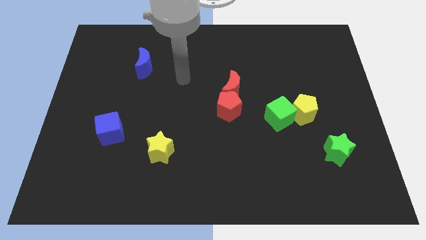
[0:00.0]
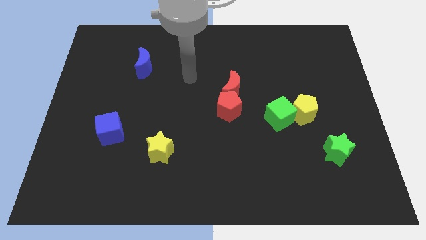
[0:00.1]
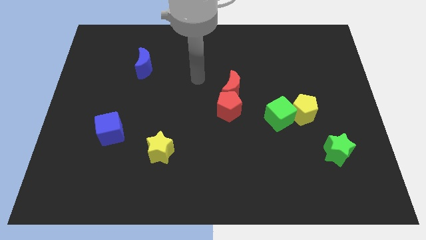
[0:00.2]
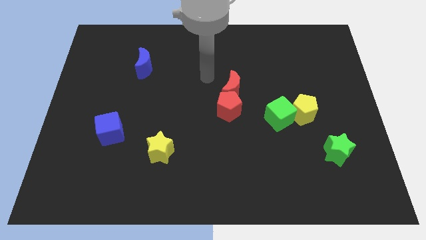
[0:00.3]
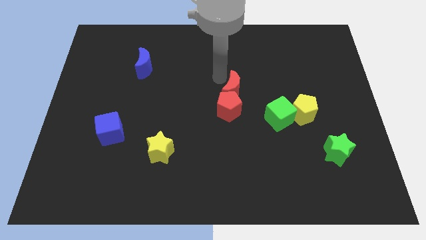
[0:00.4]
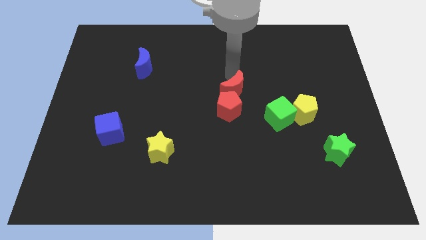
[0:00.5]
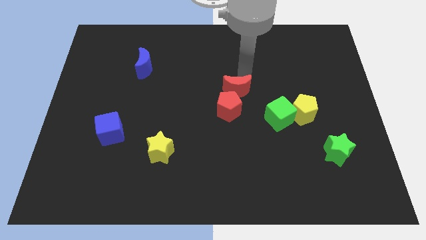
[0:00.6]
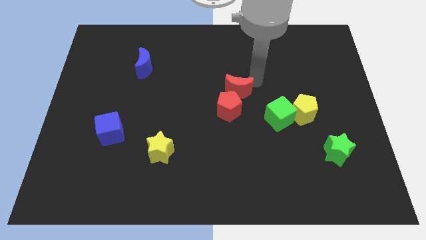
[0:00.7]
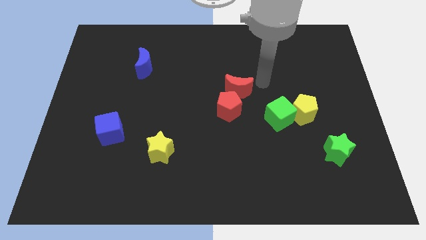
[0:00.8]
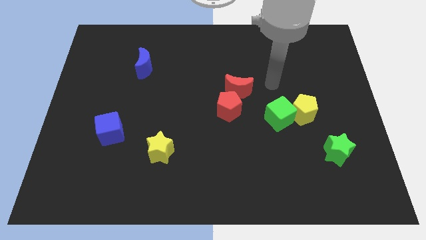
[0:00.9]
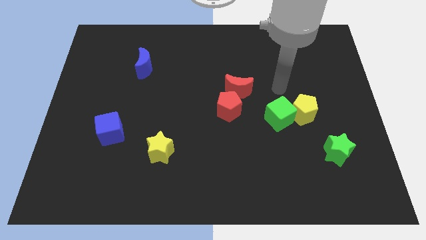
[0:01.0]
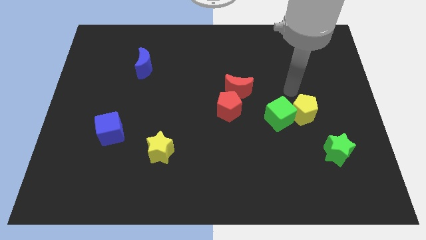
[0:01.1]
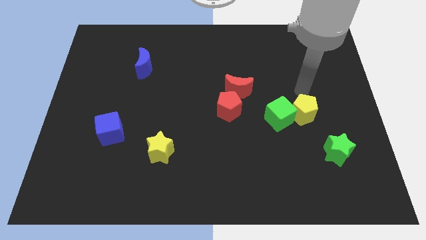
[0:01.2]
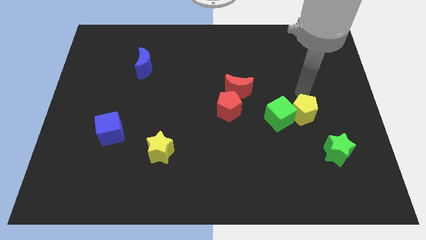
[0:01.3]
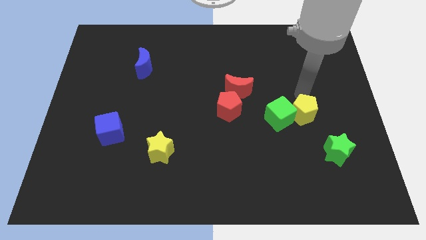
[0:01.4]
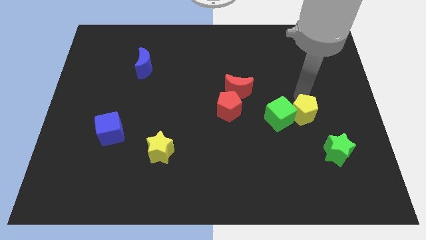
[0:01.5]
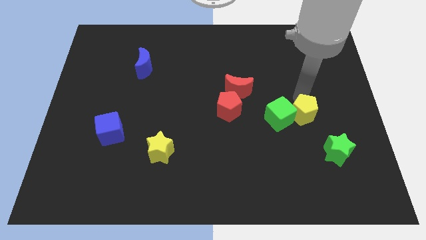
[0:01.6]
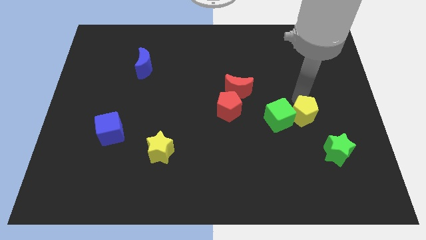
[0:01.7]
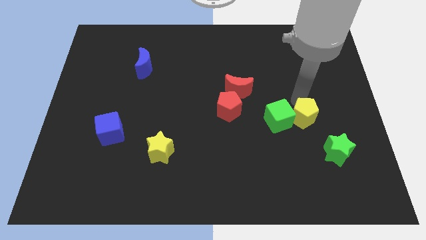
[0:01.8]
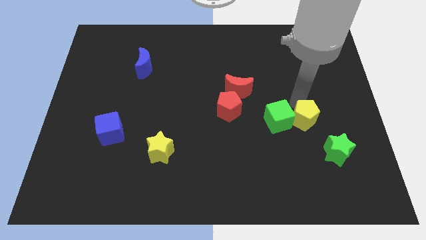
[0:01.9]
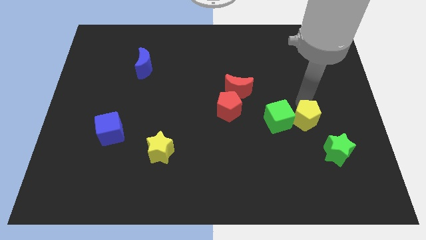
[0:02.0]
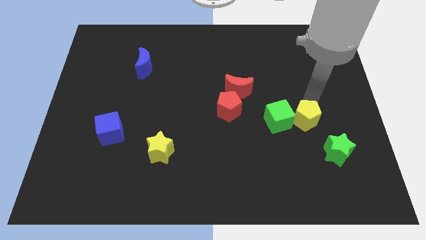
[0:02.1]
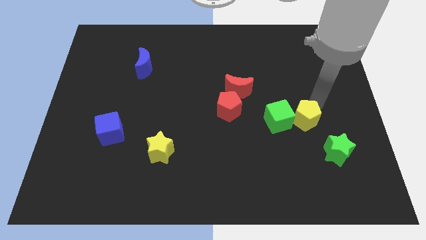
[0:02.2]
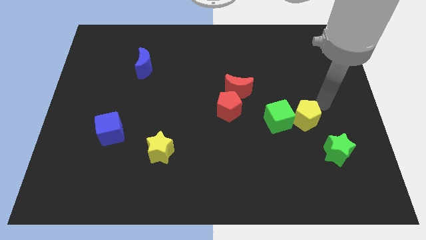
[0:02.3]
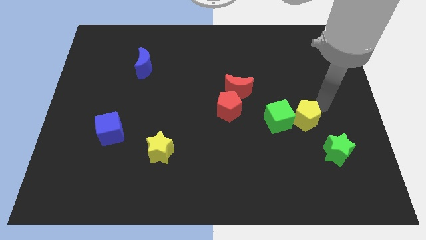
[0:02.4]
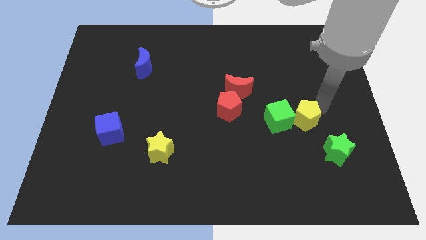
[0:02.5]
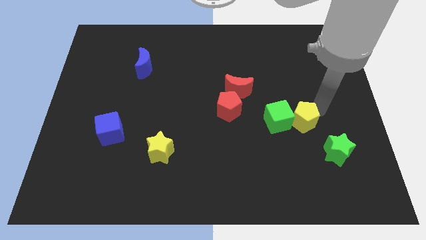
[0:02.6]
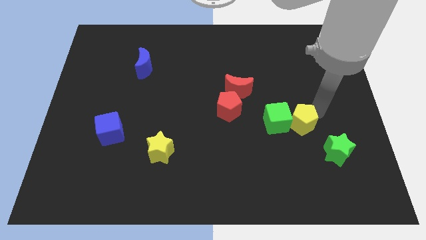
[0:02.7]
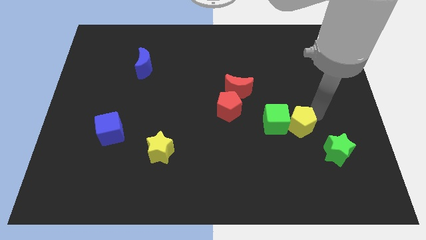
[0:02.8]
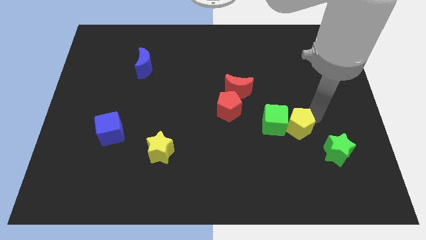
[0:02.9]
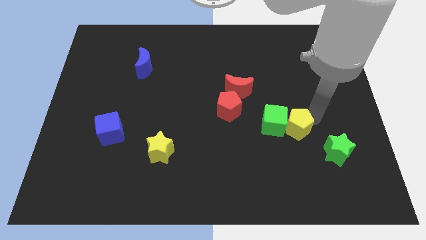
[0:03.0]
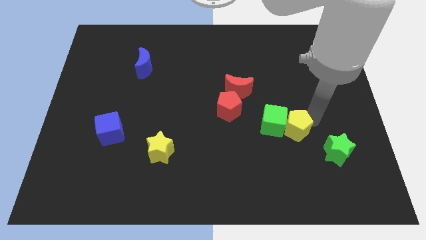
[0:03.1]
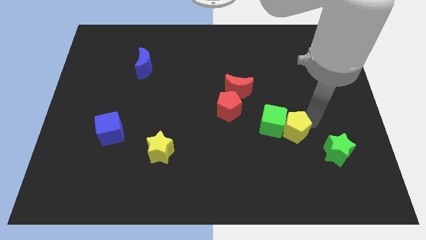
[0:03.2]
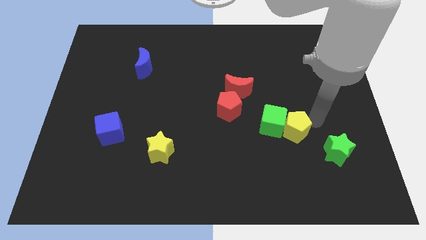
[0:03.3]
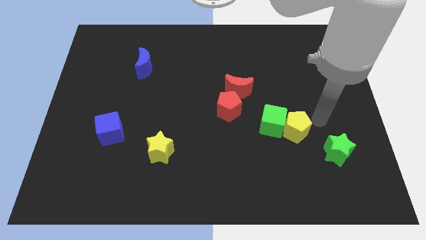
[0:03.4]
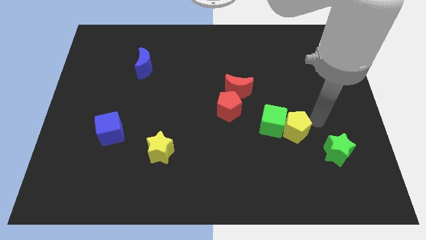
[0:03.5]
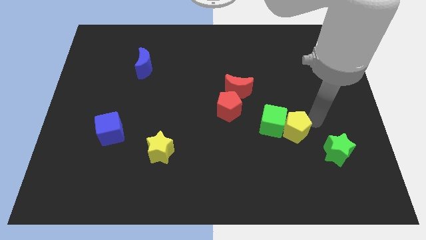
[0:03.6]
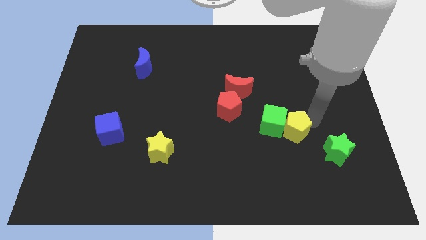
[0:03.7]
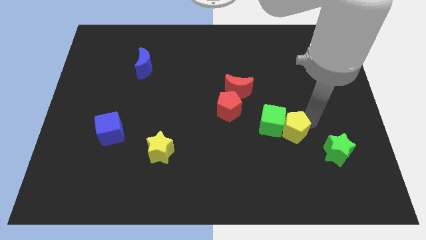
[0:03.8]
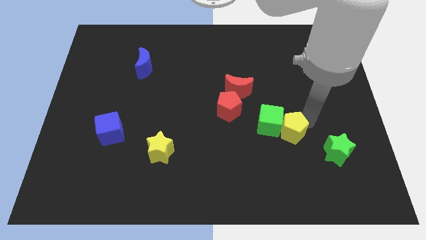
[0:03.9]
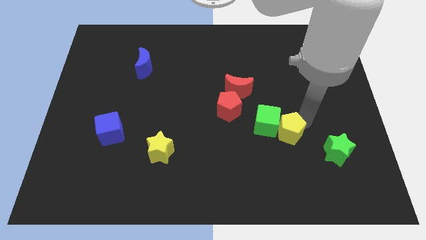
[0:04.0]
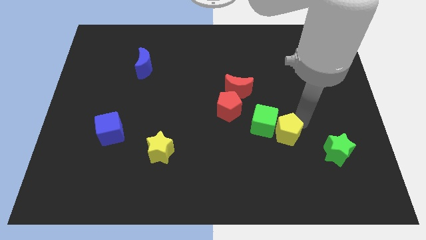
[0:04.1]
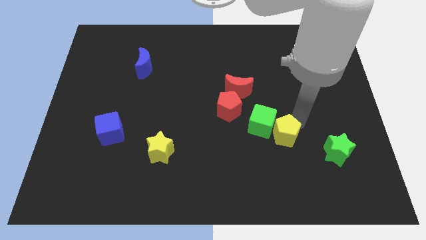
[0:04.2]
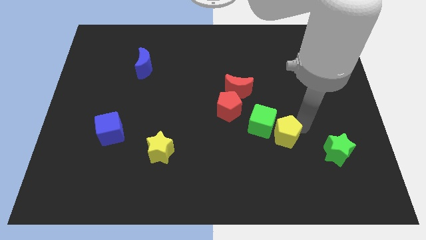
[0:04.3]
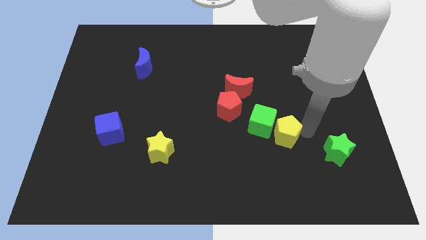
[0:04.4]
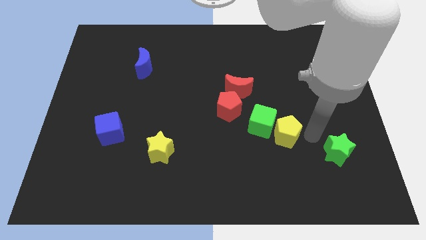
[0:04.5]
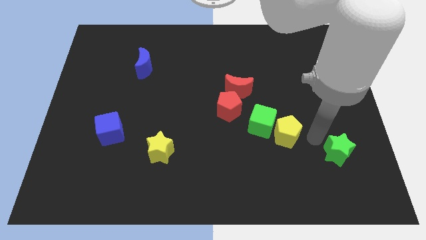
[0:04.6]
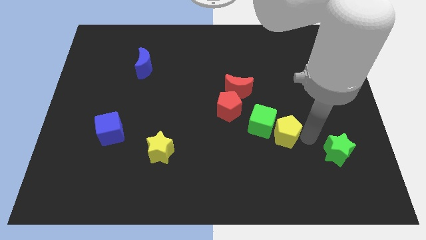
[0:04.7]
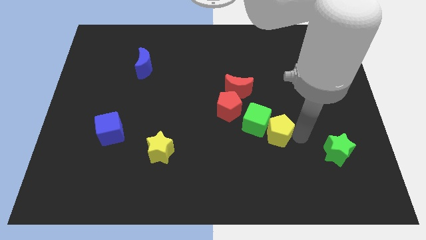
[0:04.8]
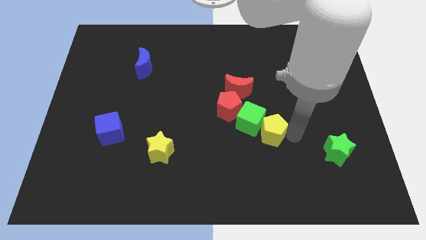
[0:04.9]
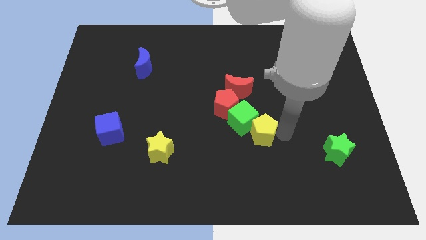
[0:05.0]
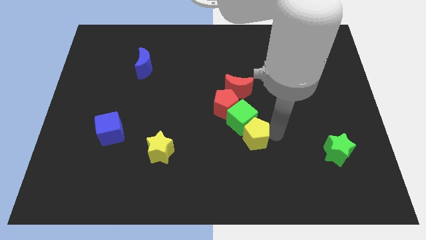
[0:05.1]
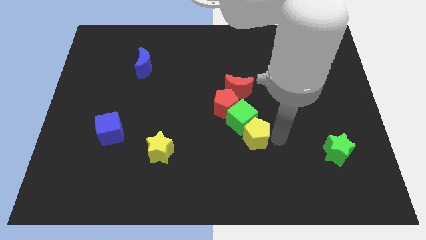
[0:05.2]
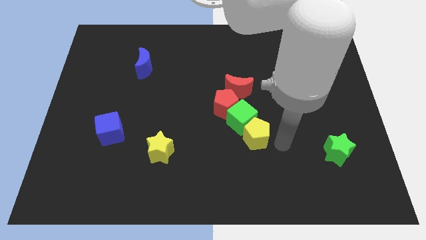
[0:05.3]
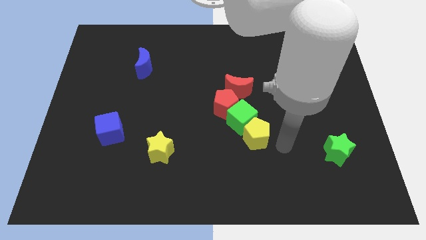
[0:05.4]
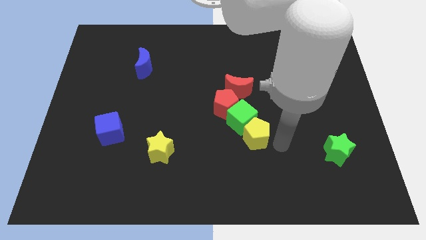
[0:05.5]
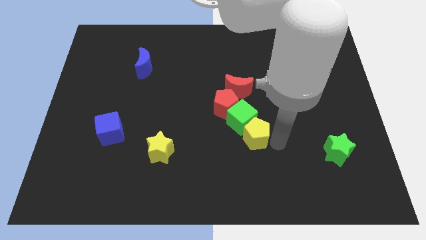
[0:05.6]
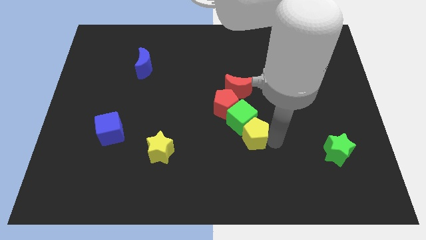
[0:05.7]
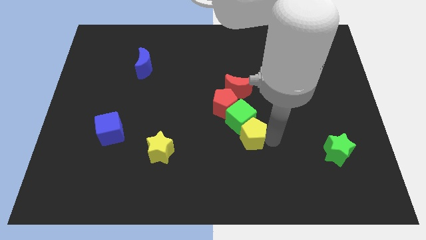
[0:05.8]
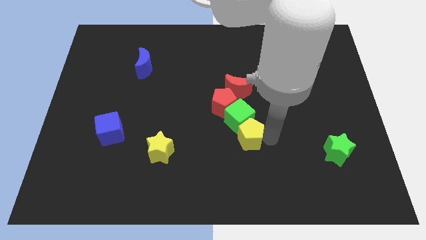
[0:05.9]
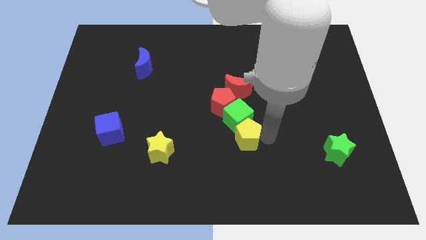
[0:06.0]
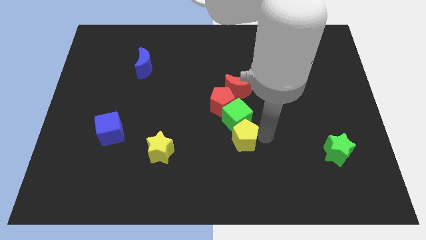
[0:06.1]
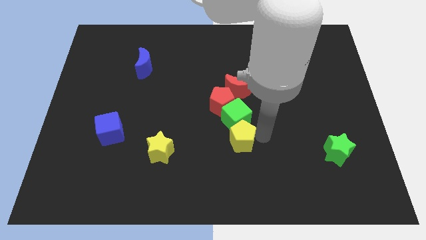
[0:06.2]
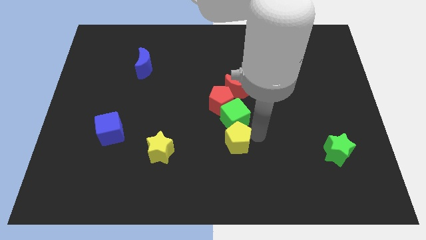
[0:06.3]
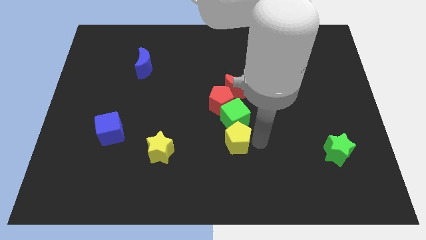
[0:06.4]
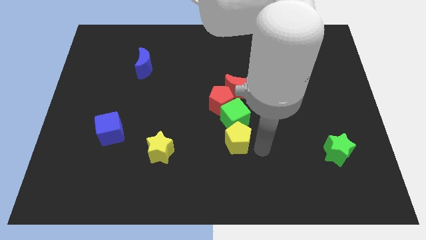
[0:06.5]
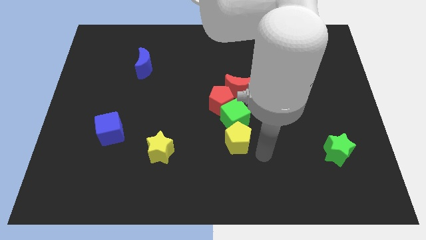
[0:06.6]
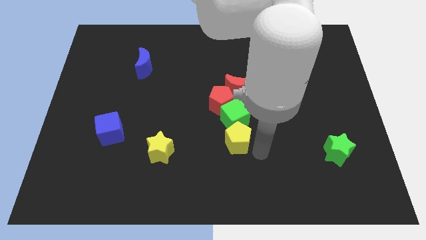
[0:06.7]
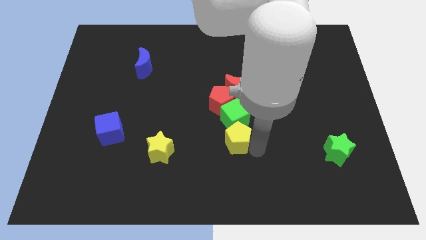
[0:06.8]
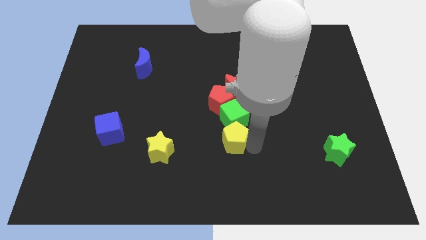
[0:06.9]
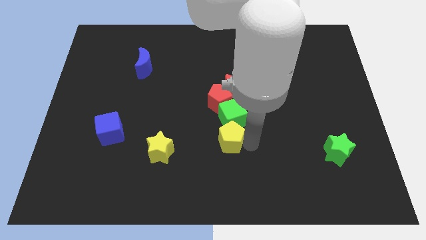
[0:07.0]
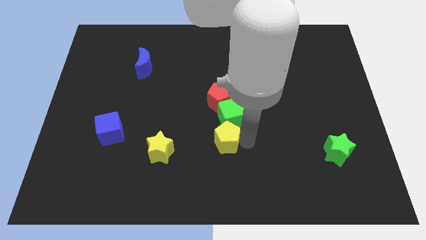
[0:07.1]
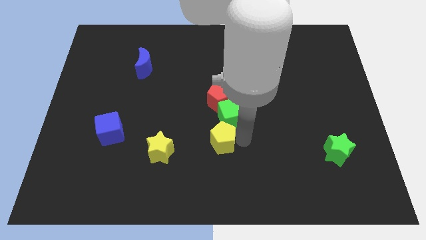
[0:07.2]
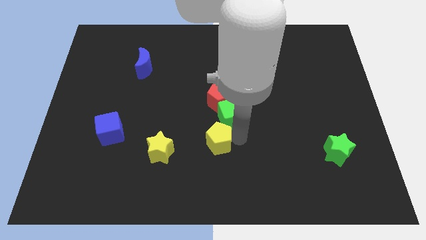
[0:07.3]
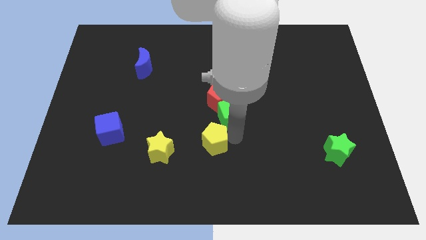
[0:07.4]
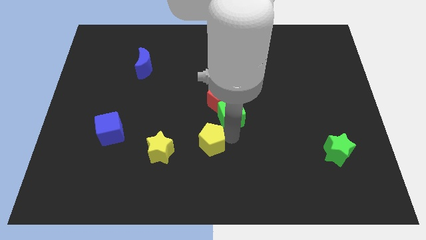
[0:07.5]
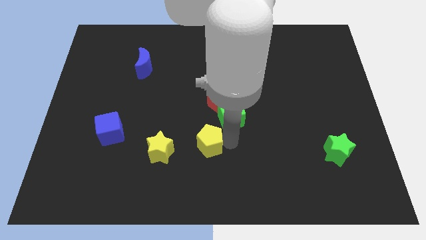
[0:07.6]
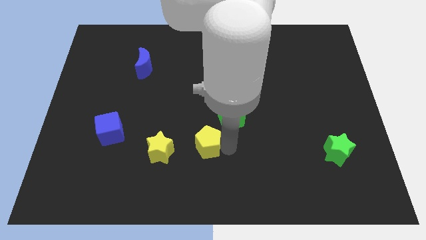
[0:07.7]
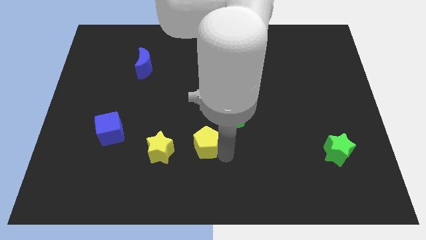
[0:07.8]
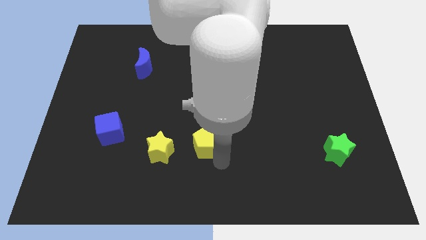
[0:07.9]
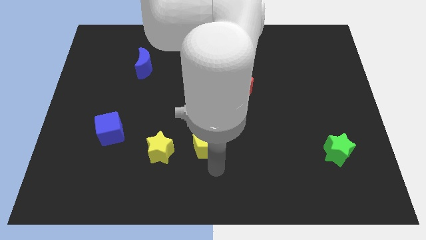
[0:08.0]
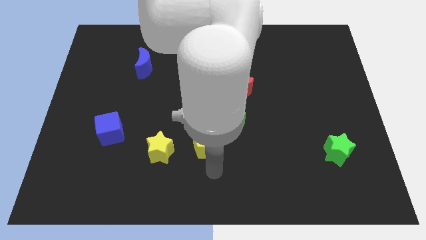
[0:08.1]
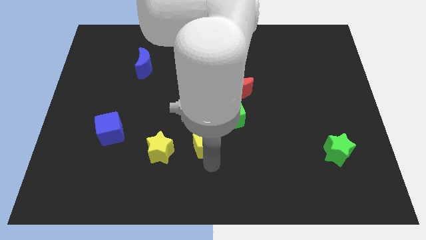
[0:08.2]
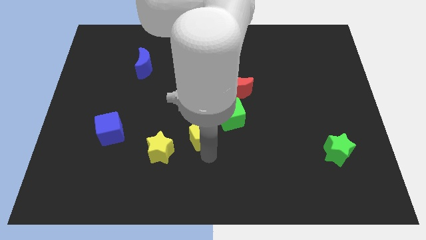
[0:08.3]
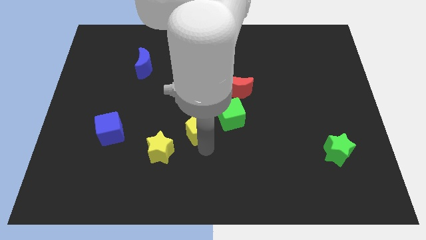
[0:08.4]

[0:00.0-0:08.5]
move the yellow pentagon diagonally down and to the left of the red pentagon
